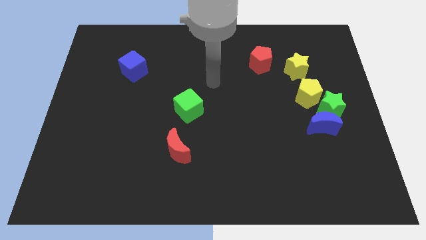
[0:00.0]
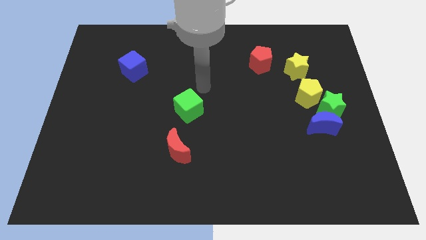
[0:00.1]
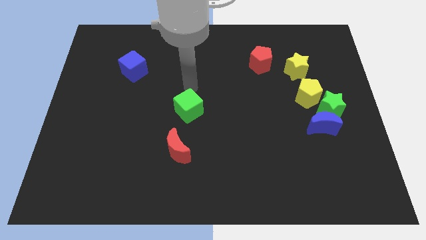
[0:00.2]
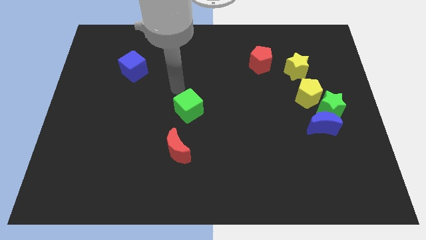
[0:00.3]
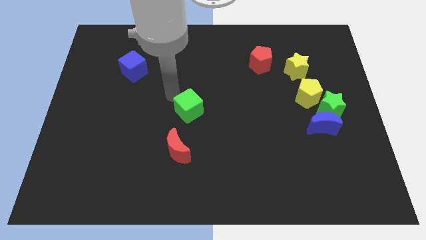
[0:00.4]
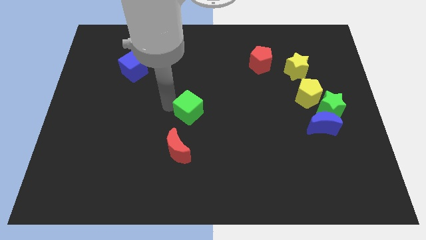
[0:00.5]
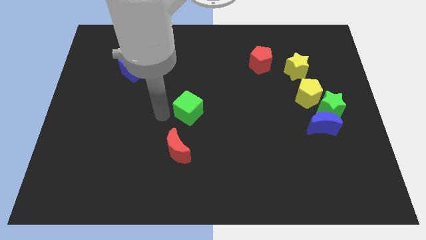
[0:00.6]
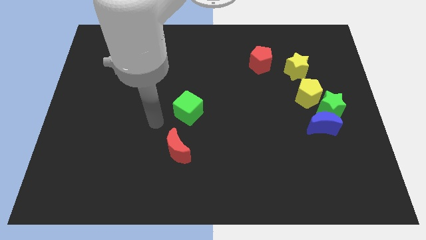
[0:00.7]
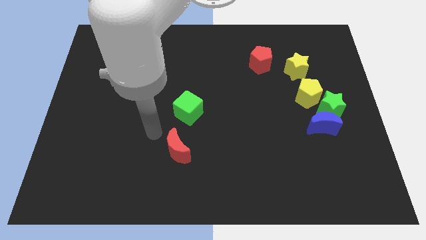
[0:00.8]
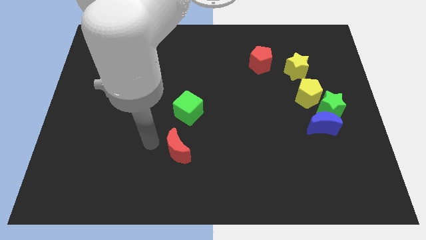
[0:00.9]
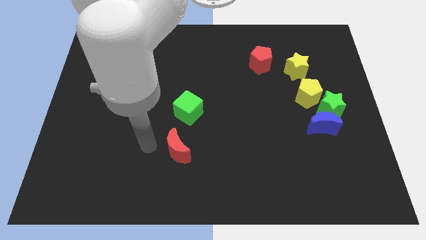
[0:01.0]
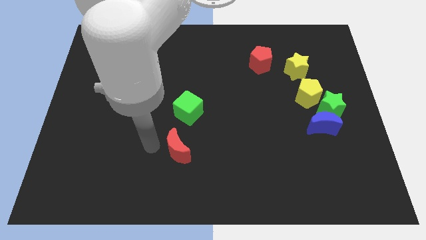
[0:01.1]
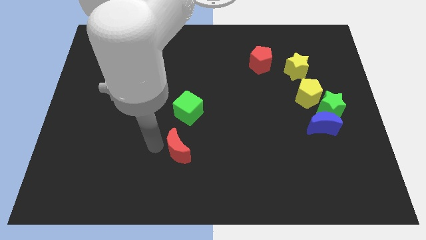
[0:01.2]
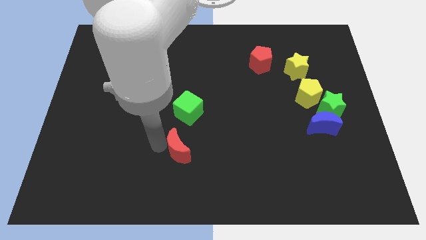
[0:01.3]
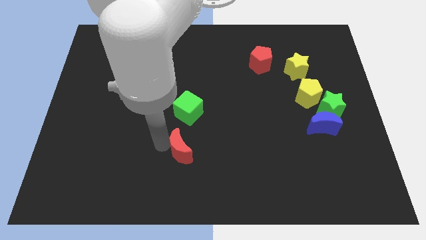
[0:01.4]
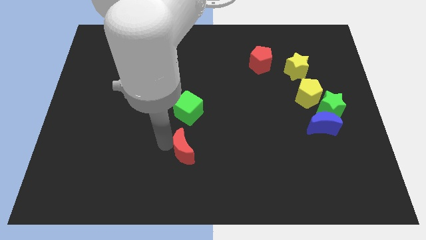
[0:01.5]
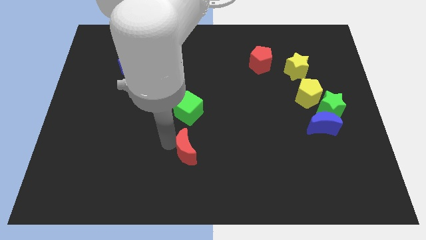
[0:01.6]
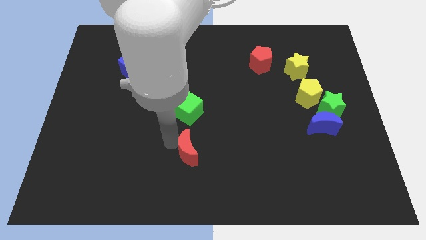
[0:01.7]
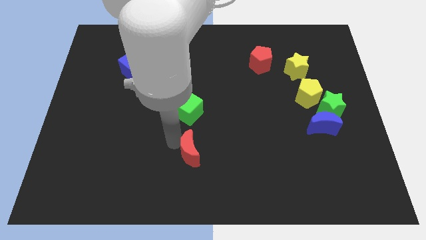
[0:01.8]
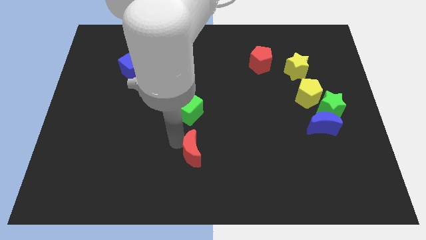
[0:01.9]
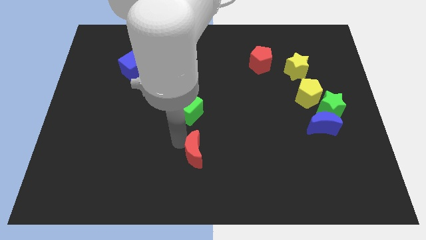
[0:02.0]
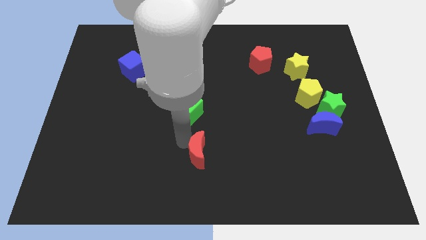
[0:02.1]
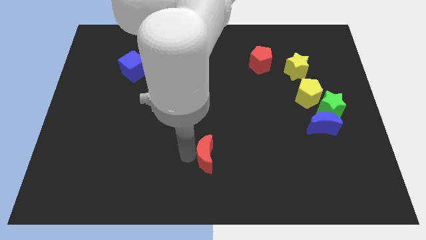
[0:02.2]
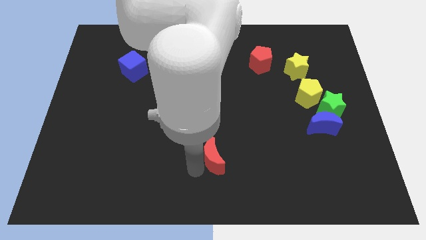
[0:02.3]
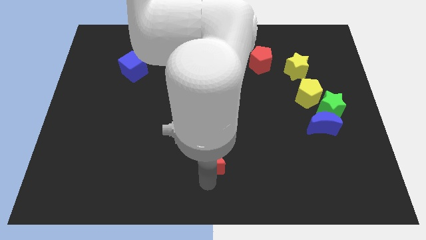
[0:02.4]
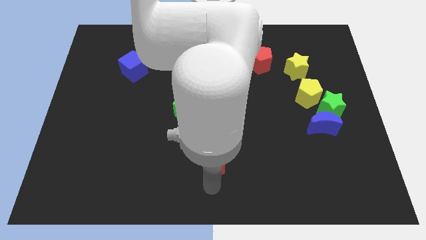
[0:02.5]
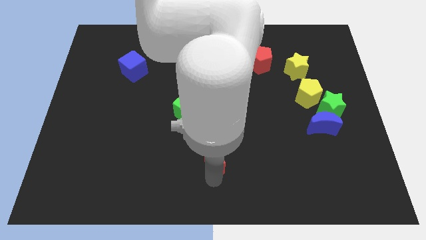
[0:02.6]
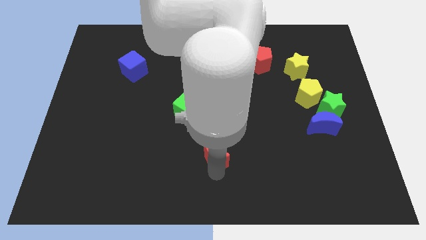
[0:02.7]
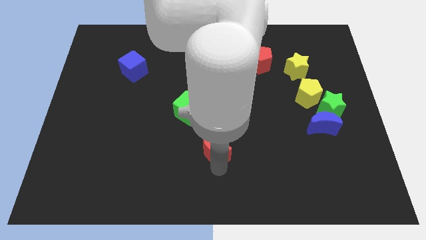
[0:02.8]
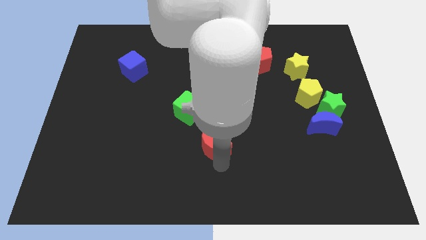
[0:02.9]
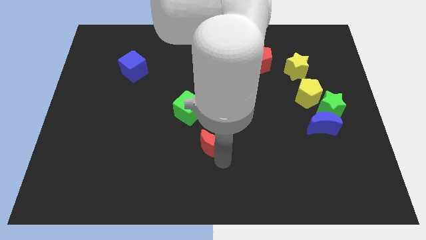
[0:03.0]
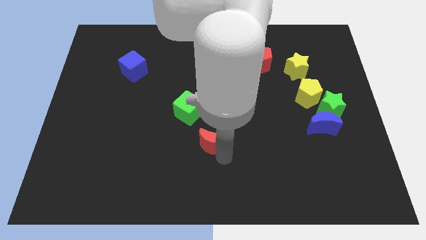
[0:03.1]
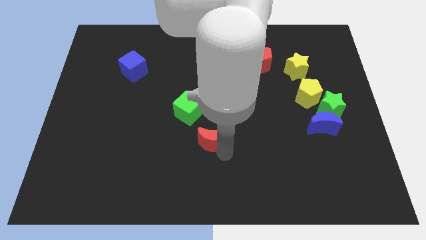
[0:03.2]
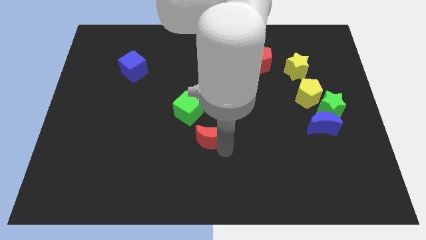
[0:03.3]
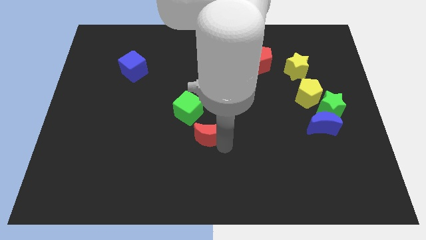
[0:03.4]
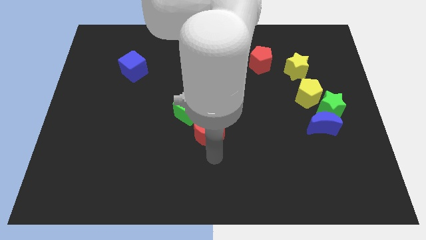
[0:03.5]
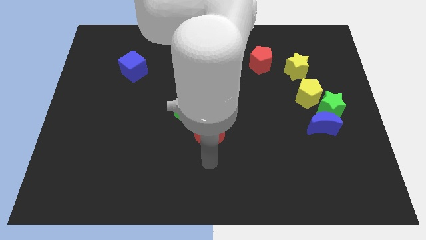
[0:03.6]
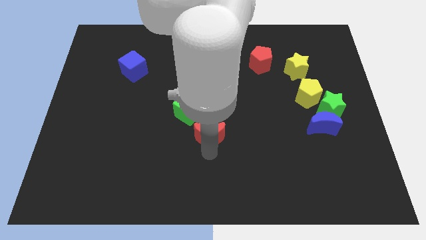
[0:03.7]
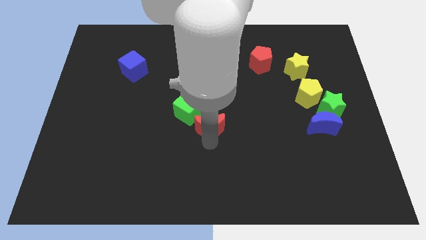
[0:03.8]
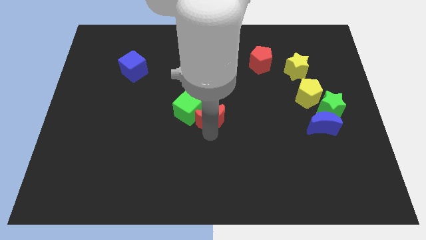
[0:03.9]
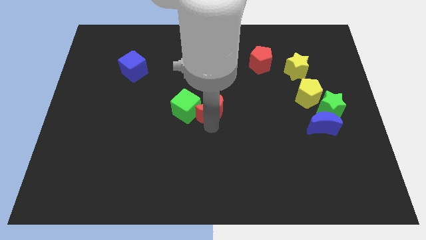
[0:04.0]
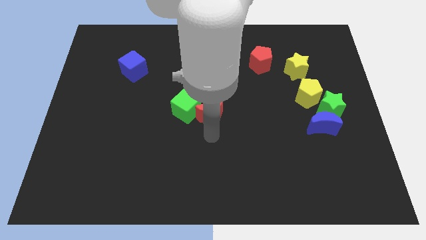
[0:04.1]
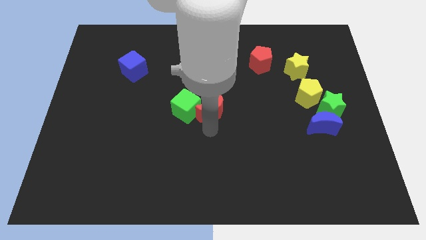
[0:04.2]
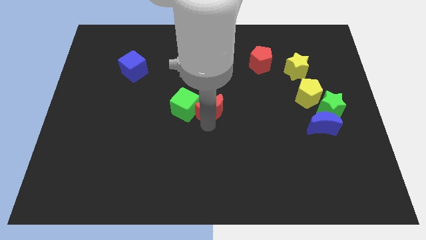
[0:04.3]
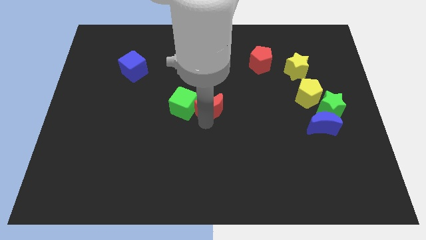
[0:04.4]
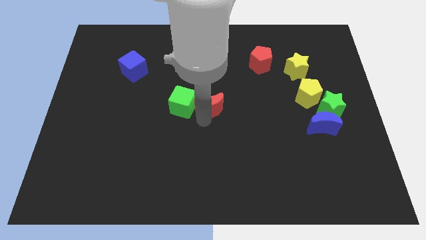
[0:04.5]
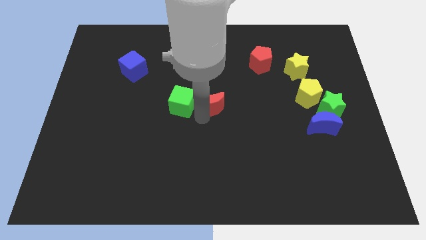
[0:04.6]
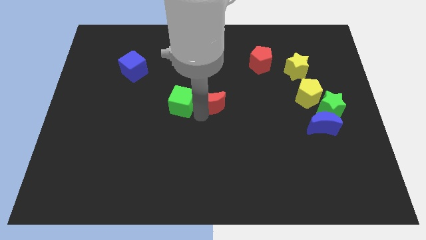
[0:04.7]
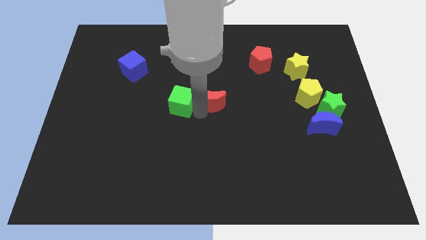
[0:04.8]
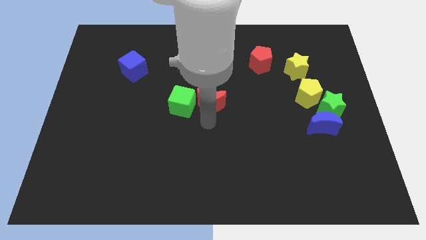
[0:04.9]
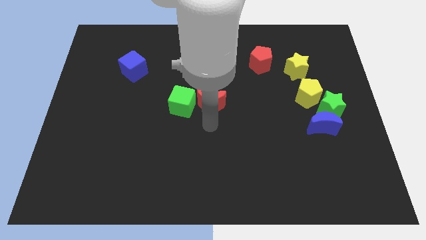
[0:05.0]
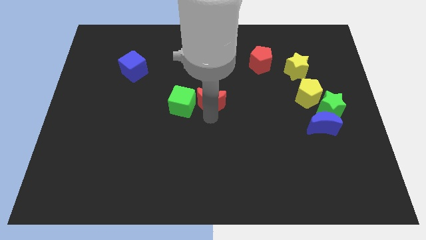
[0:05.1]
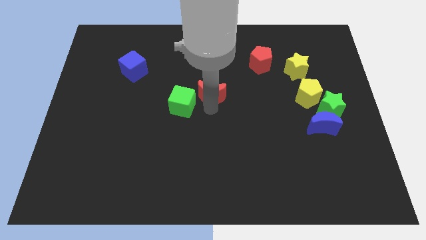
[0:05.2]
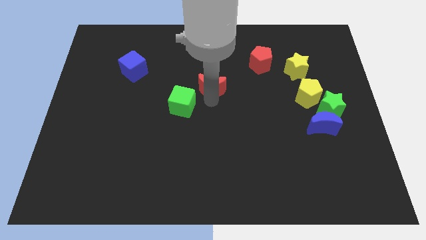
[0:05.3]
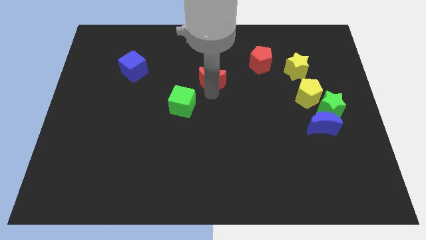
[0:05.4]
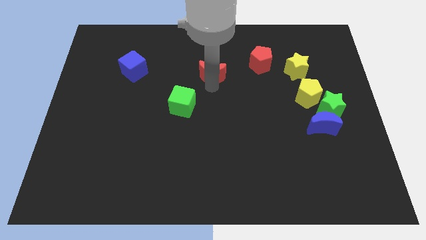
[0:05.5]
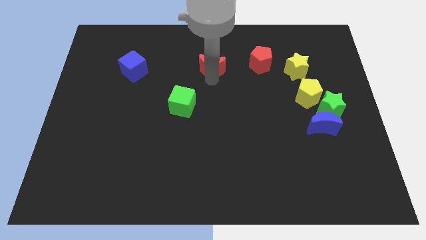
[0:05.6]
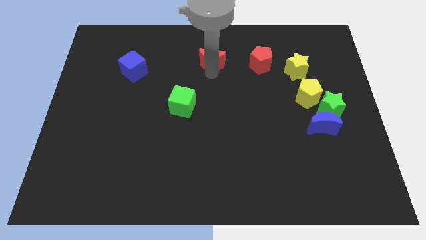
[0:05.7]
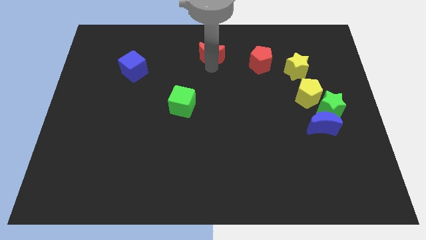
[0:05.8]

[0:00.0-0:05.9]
slide the red moon to the top side
